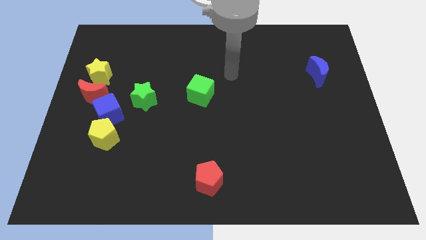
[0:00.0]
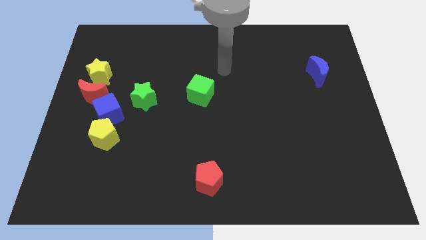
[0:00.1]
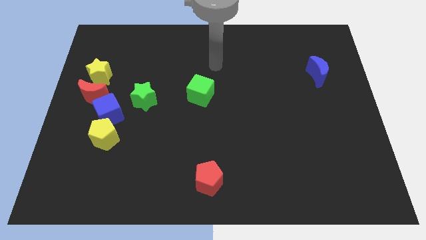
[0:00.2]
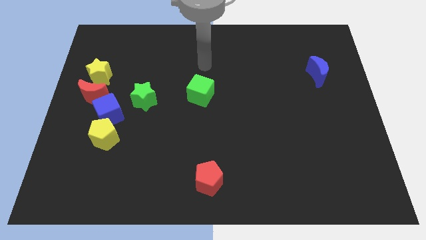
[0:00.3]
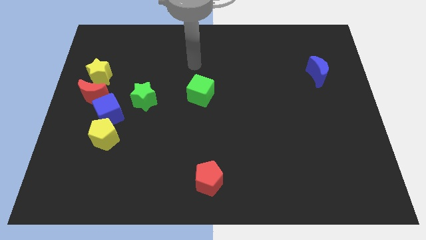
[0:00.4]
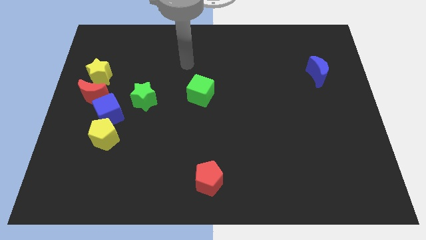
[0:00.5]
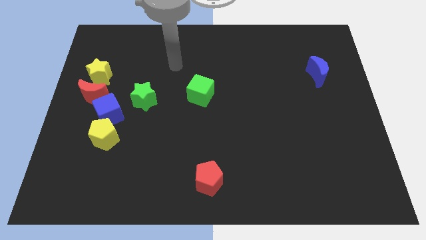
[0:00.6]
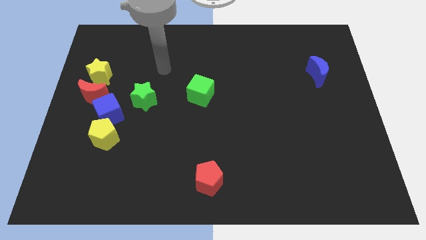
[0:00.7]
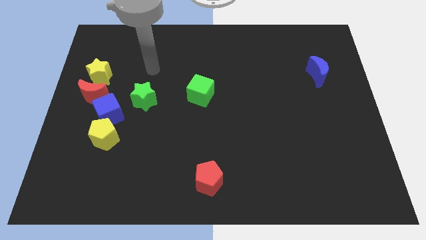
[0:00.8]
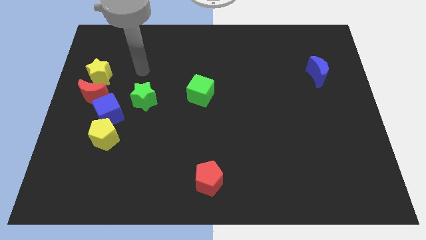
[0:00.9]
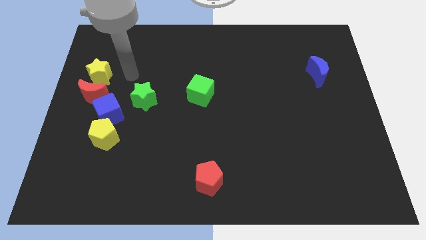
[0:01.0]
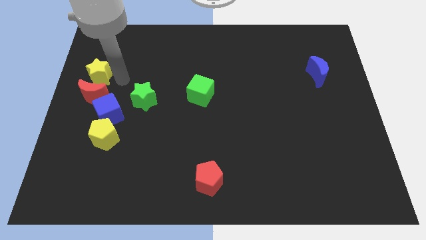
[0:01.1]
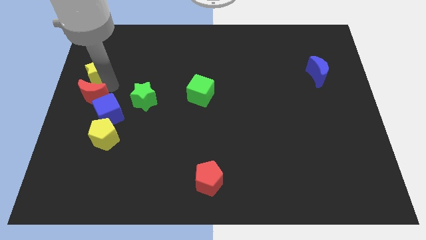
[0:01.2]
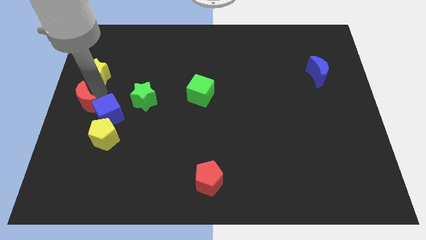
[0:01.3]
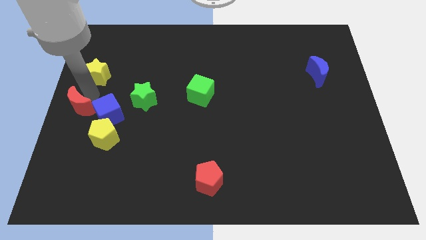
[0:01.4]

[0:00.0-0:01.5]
move the yellow star away from the red moon

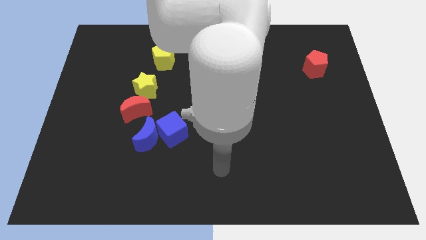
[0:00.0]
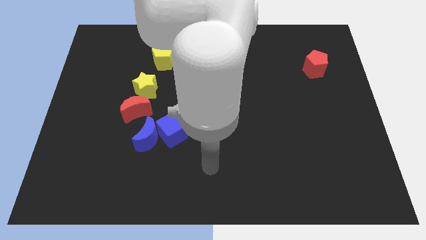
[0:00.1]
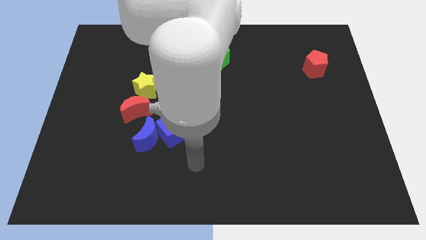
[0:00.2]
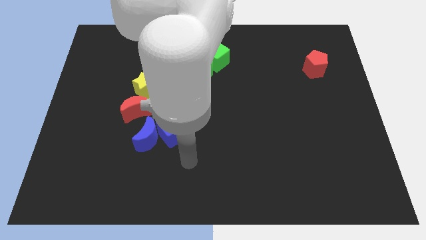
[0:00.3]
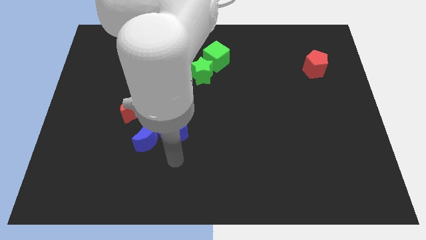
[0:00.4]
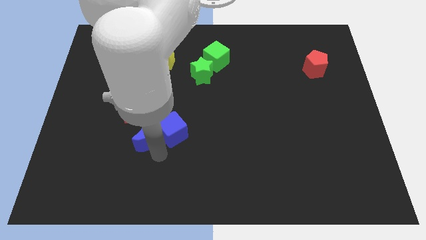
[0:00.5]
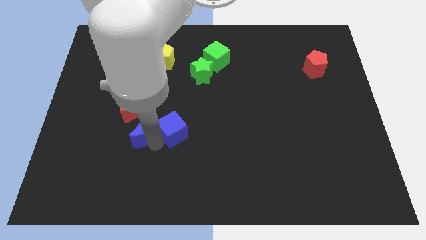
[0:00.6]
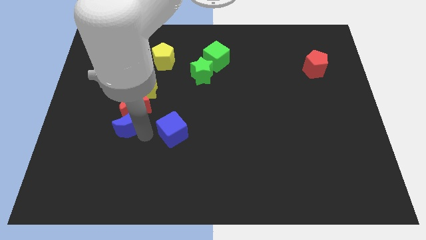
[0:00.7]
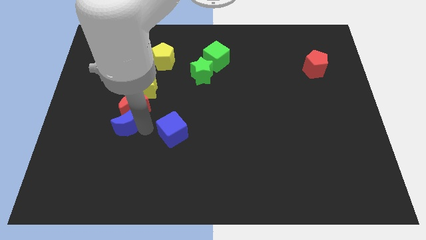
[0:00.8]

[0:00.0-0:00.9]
move the blue cube away from the blue moon

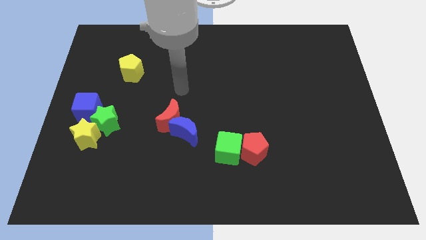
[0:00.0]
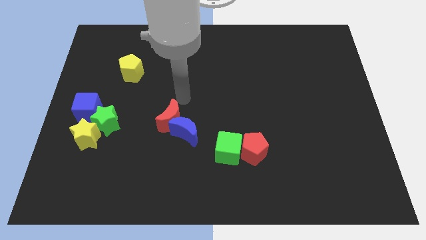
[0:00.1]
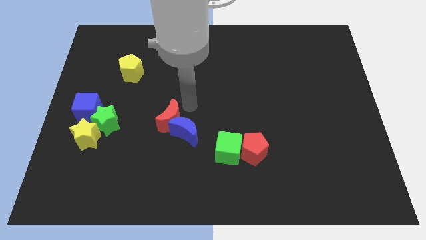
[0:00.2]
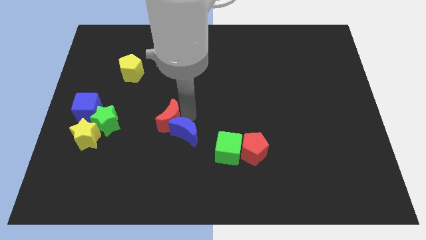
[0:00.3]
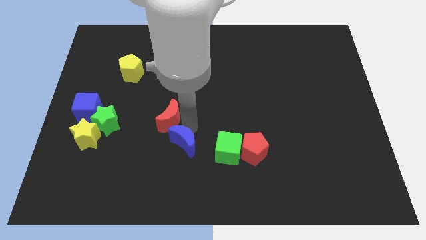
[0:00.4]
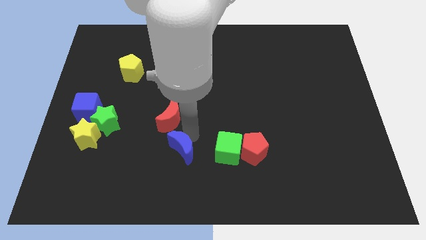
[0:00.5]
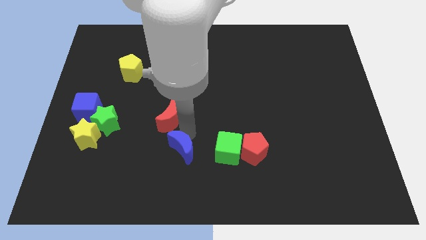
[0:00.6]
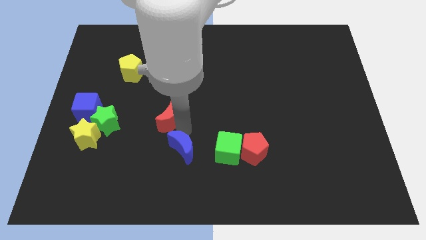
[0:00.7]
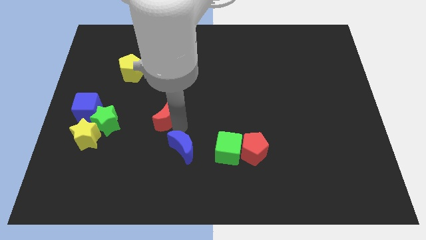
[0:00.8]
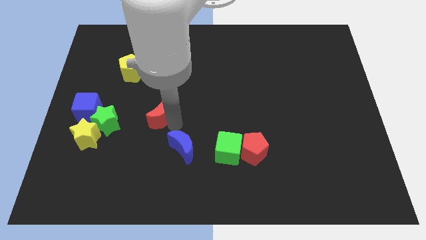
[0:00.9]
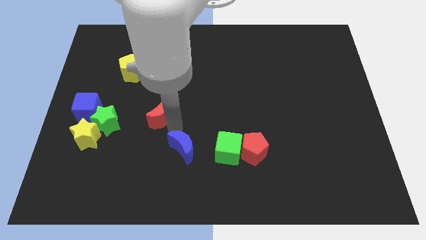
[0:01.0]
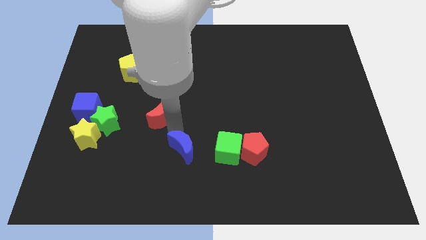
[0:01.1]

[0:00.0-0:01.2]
move the red moon away from the blue moon

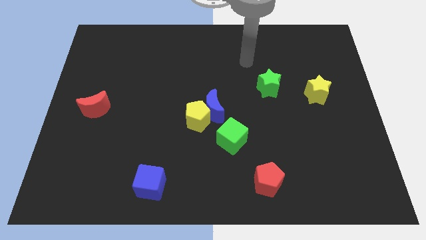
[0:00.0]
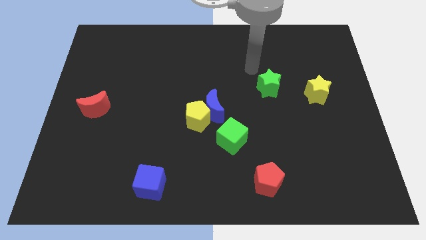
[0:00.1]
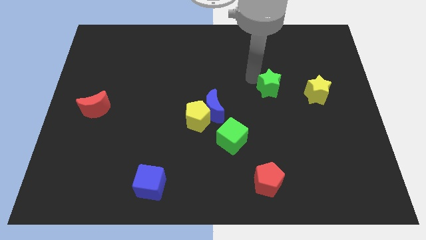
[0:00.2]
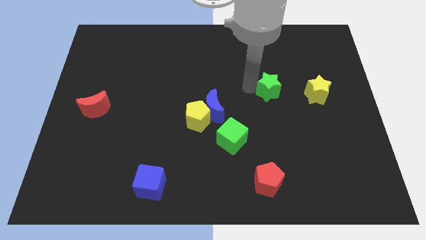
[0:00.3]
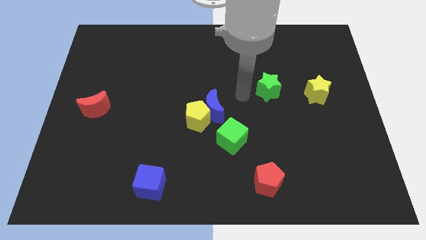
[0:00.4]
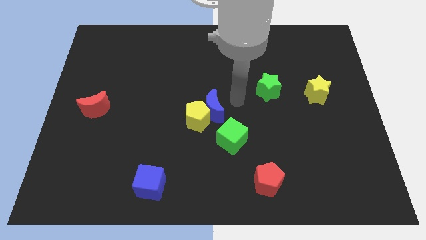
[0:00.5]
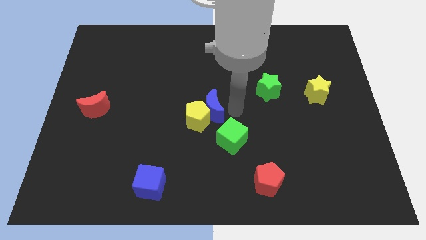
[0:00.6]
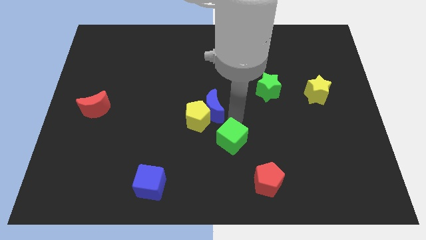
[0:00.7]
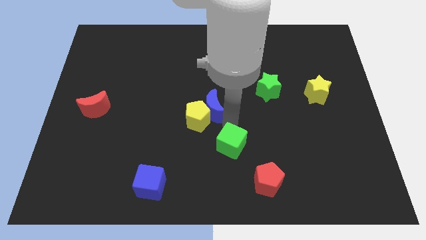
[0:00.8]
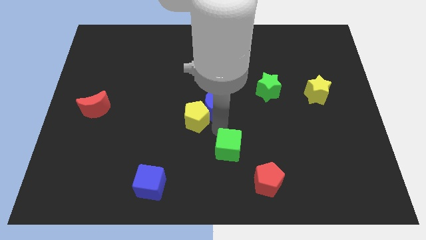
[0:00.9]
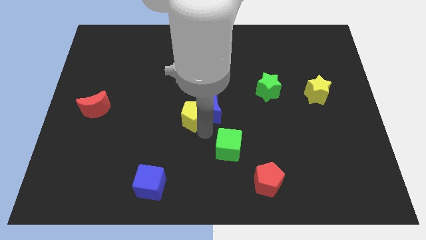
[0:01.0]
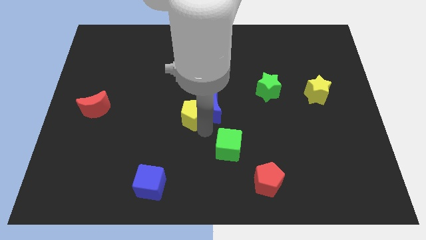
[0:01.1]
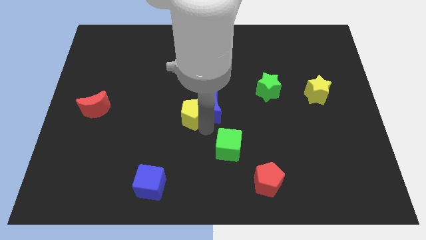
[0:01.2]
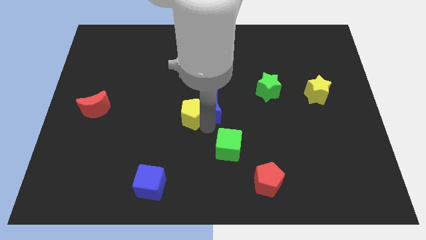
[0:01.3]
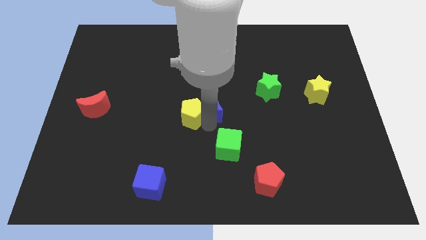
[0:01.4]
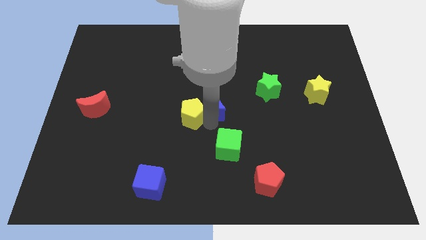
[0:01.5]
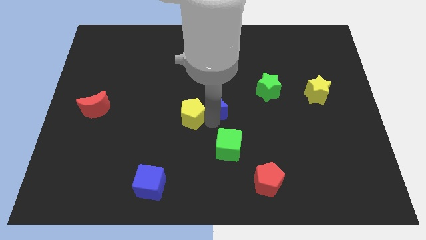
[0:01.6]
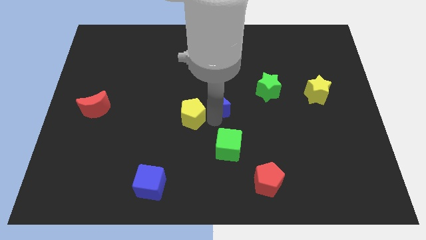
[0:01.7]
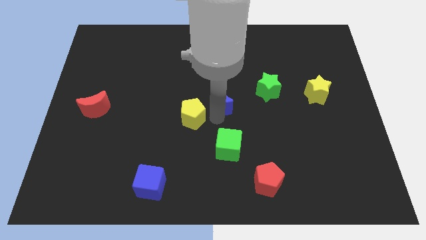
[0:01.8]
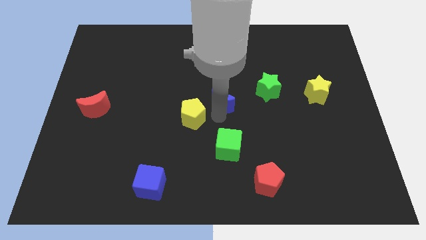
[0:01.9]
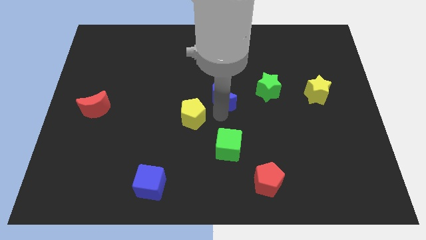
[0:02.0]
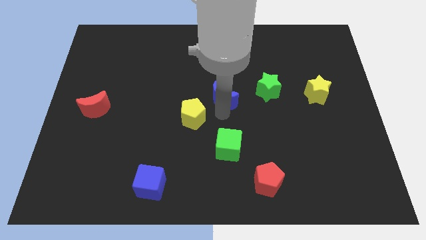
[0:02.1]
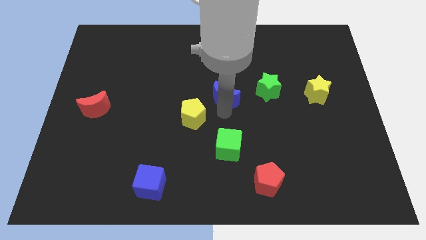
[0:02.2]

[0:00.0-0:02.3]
separate the blue moon from the yellow pentagon and green cube

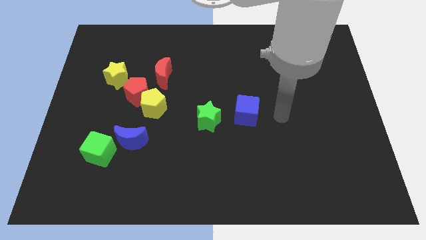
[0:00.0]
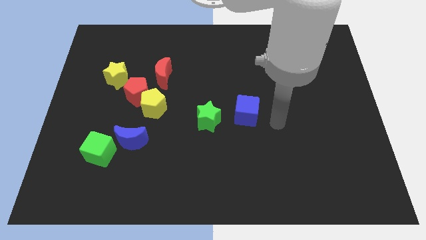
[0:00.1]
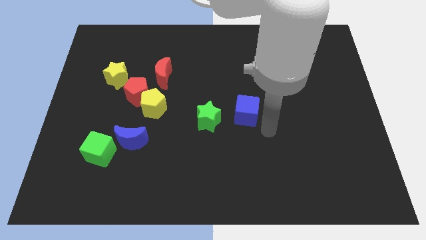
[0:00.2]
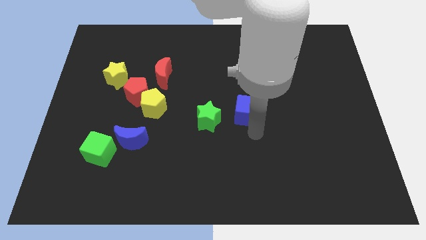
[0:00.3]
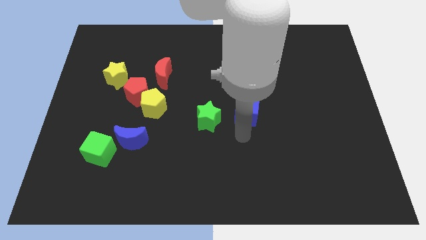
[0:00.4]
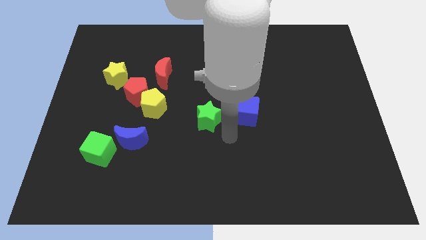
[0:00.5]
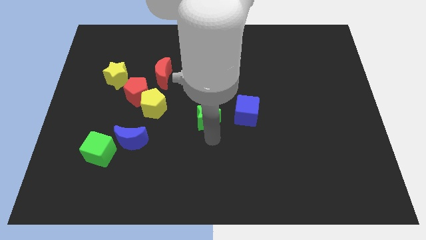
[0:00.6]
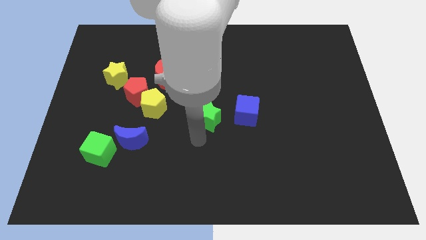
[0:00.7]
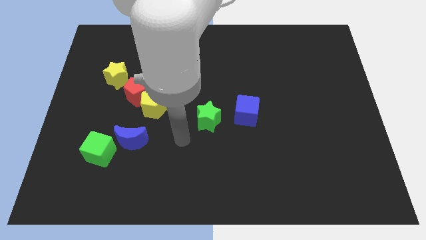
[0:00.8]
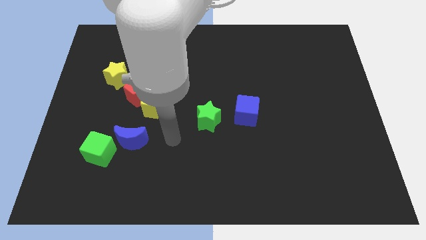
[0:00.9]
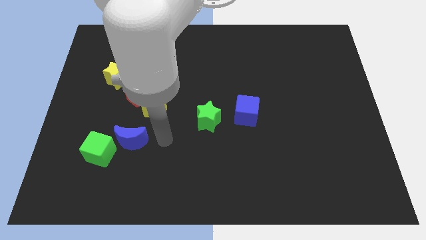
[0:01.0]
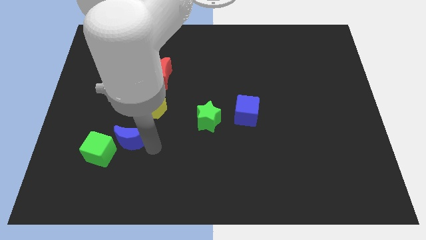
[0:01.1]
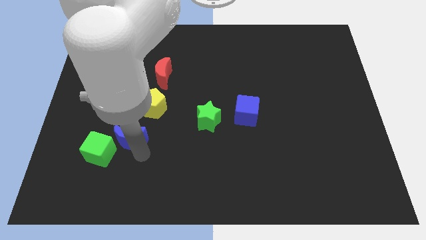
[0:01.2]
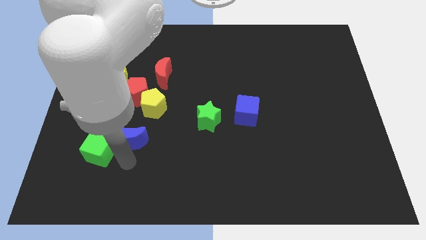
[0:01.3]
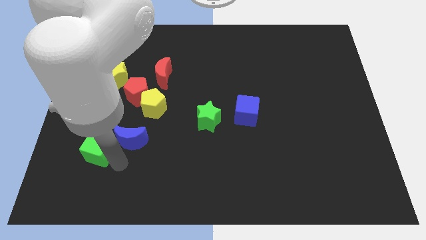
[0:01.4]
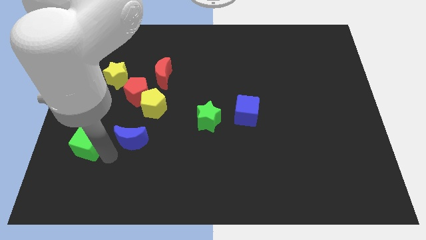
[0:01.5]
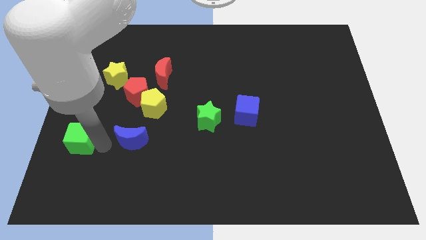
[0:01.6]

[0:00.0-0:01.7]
move the blue moon away from the green cube

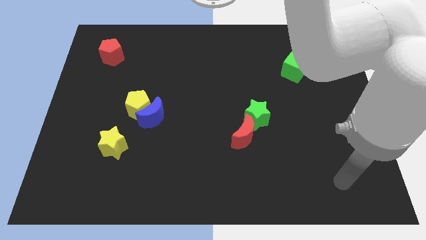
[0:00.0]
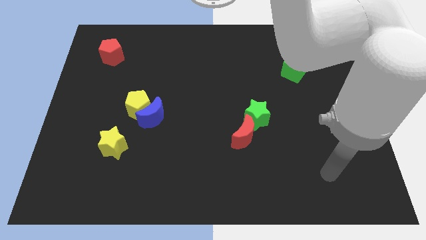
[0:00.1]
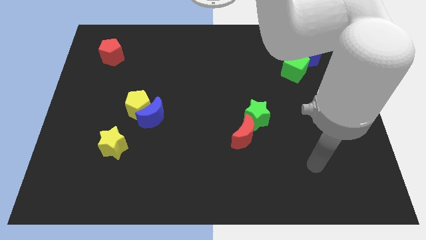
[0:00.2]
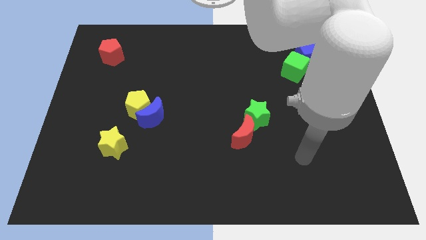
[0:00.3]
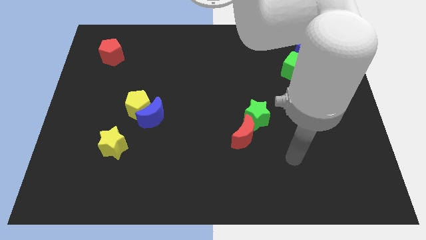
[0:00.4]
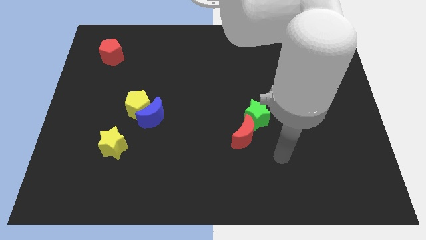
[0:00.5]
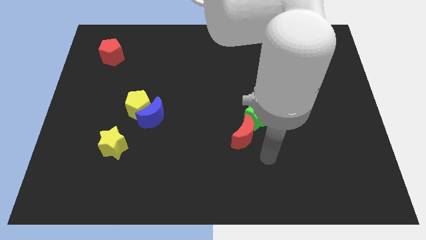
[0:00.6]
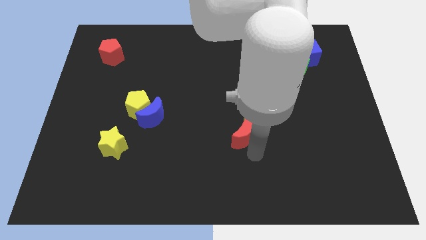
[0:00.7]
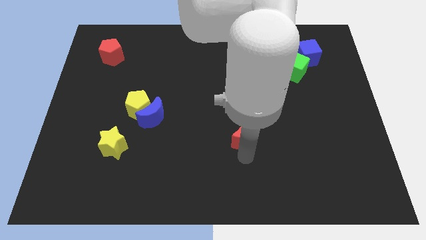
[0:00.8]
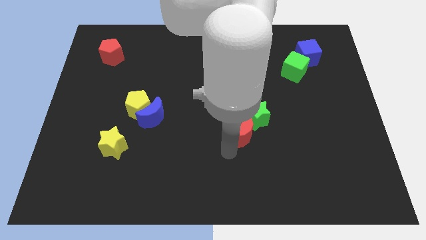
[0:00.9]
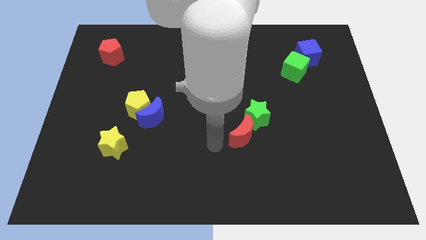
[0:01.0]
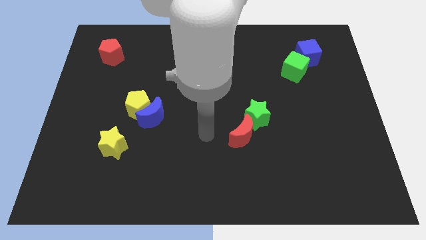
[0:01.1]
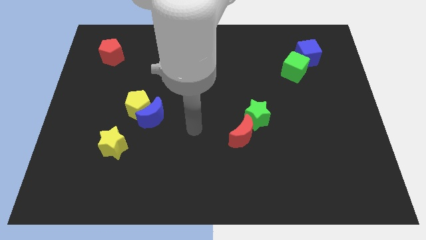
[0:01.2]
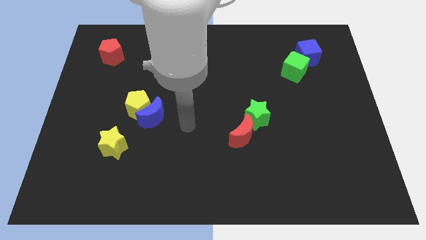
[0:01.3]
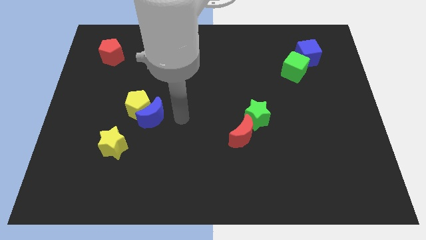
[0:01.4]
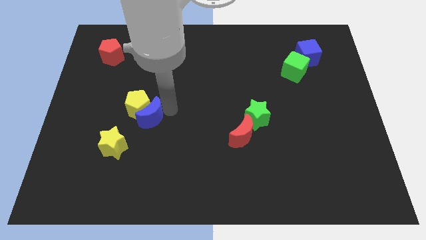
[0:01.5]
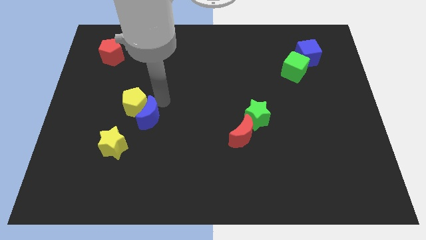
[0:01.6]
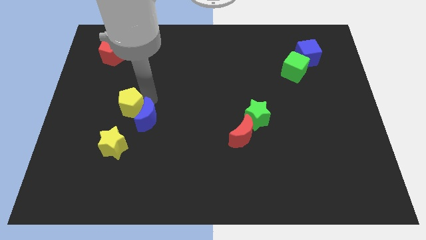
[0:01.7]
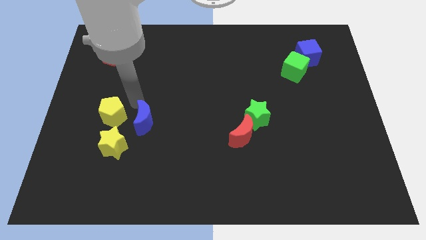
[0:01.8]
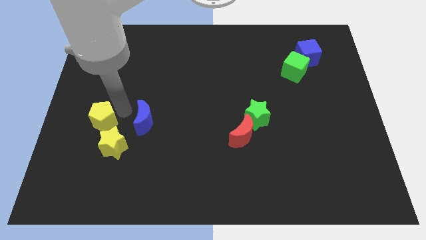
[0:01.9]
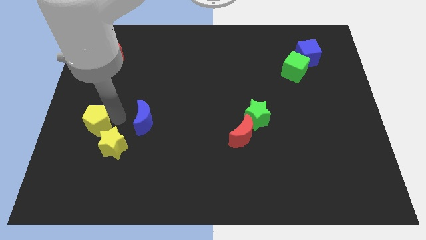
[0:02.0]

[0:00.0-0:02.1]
pull the blue moon apart from the yellow pentagon
